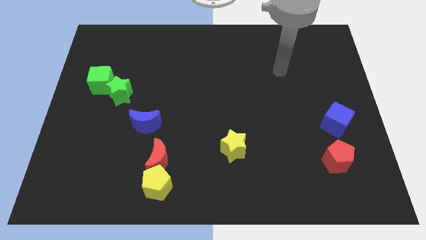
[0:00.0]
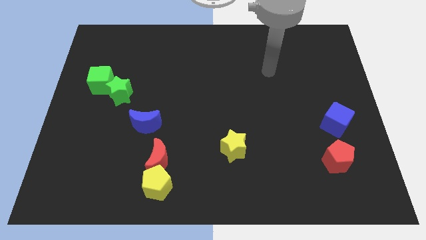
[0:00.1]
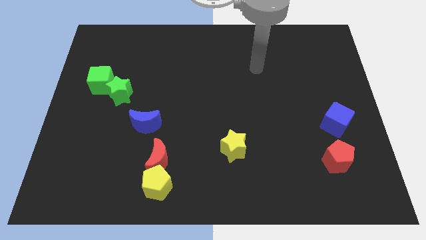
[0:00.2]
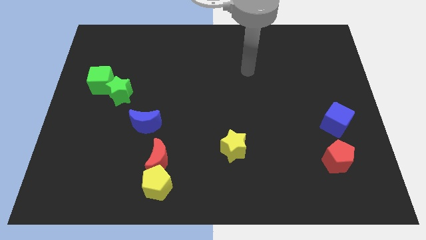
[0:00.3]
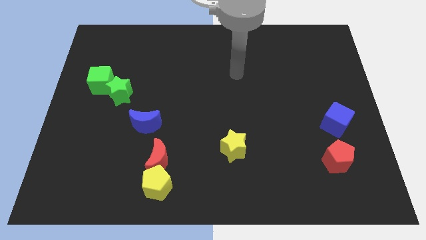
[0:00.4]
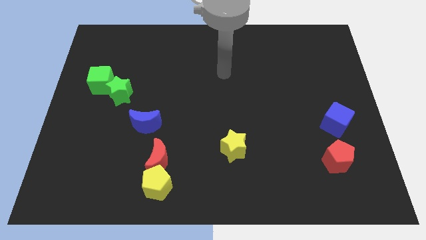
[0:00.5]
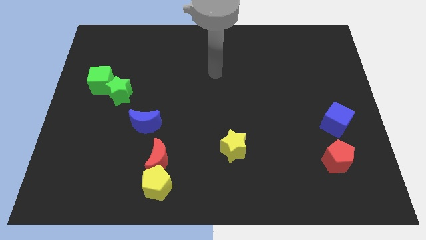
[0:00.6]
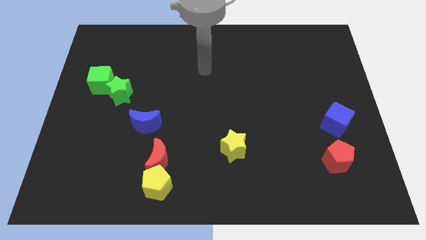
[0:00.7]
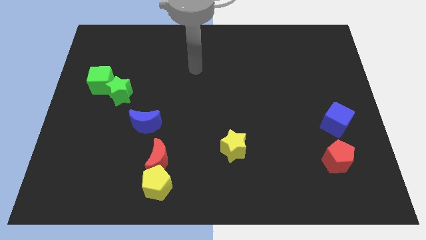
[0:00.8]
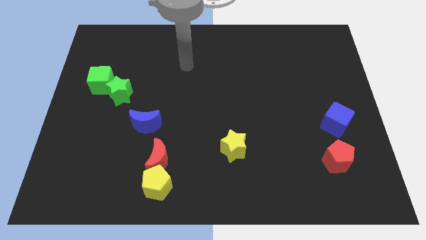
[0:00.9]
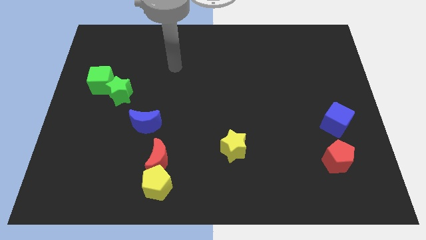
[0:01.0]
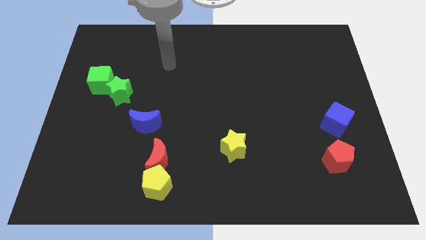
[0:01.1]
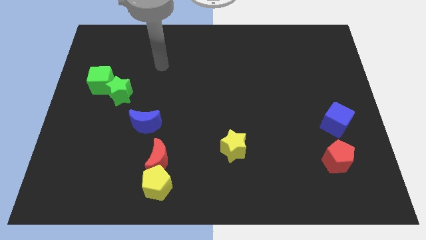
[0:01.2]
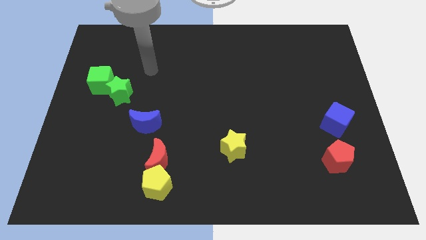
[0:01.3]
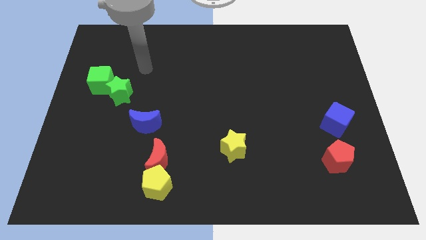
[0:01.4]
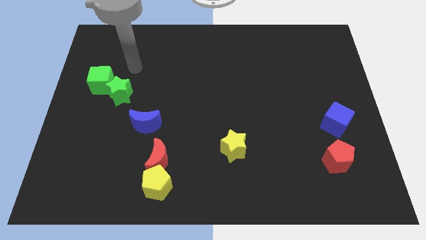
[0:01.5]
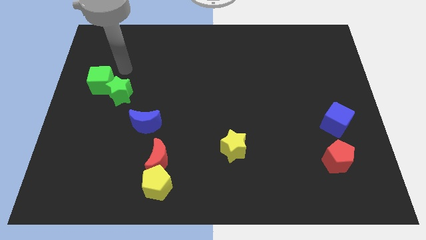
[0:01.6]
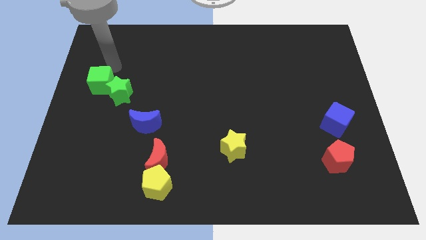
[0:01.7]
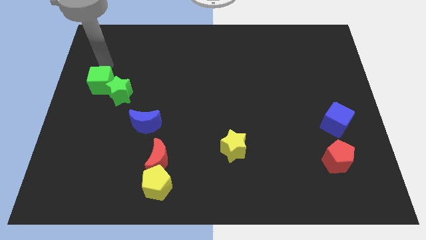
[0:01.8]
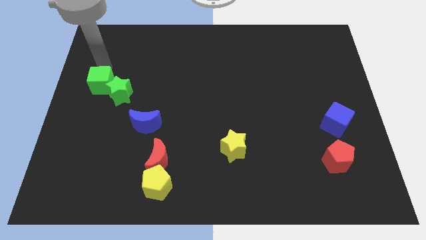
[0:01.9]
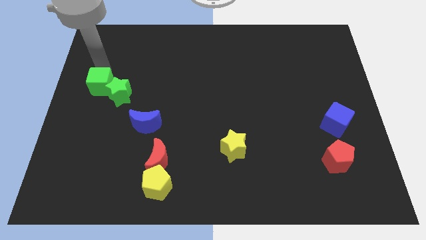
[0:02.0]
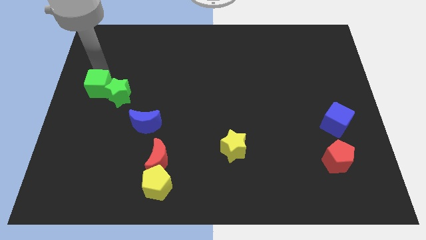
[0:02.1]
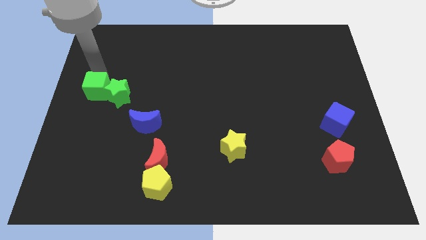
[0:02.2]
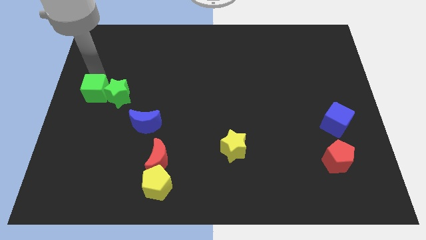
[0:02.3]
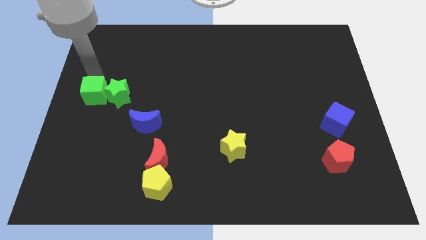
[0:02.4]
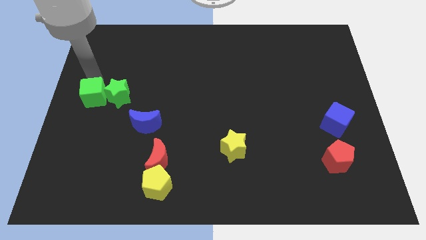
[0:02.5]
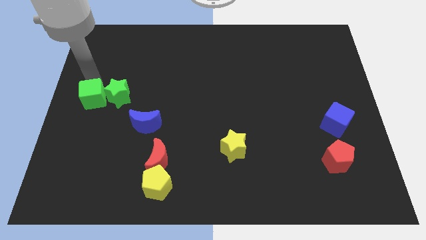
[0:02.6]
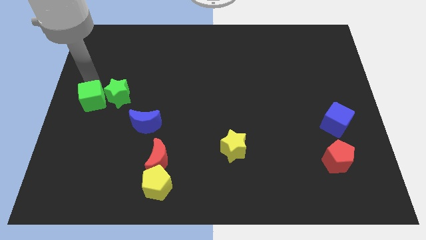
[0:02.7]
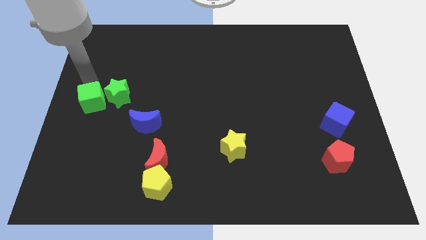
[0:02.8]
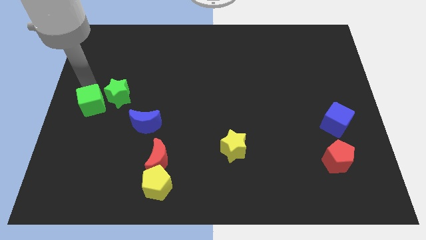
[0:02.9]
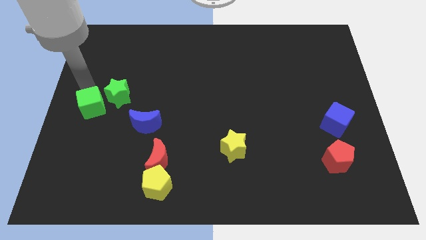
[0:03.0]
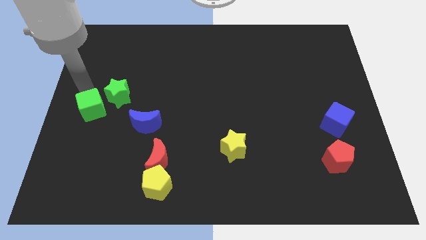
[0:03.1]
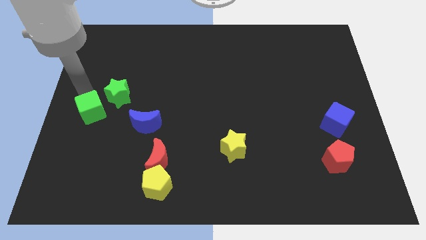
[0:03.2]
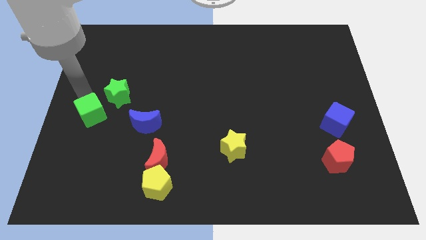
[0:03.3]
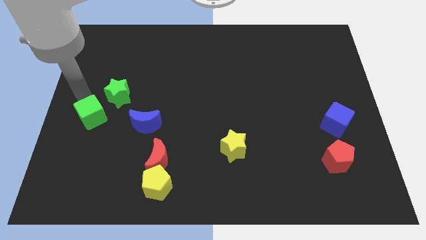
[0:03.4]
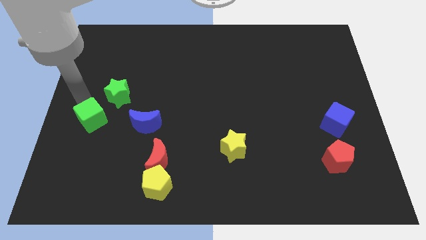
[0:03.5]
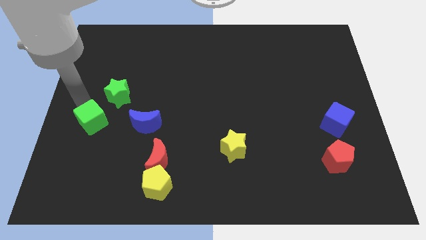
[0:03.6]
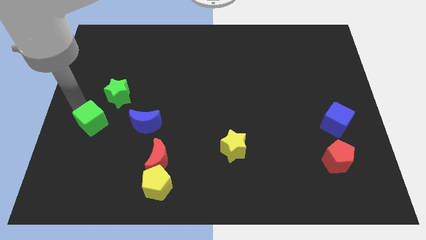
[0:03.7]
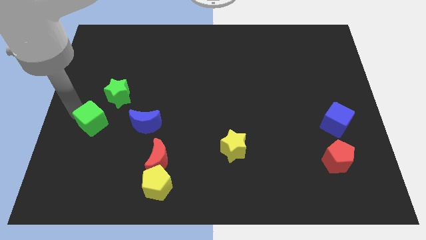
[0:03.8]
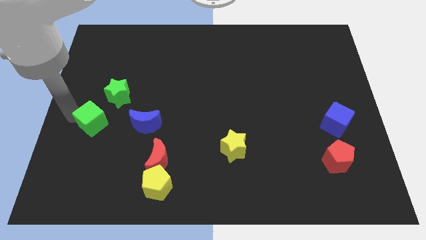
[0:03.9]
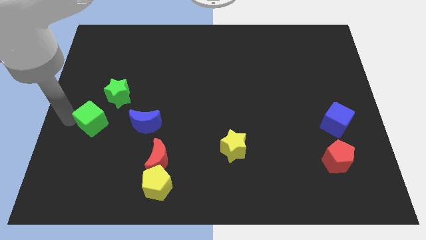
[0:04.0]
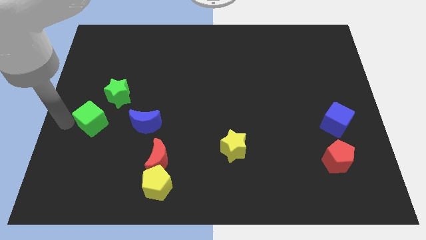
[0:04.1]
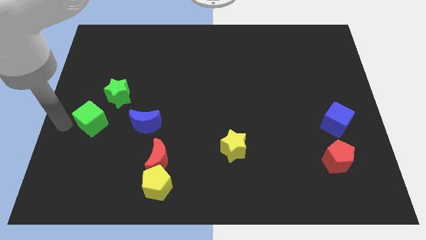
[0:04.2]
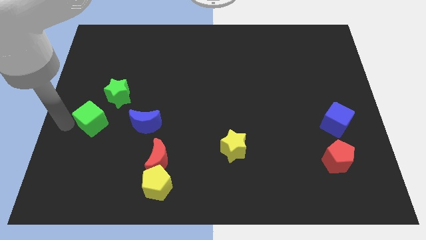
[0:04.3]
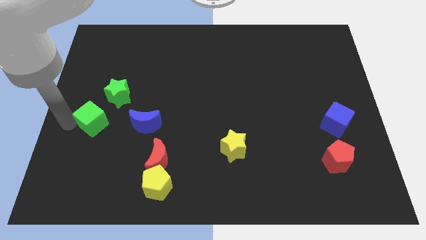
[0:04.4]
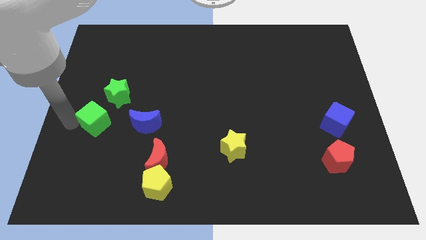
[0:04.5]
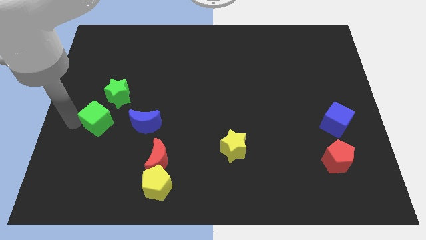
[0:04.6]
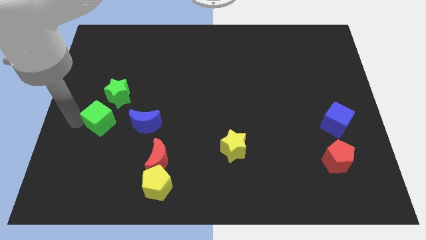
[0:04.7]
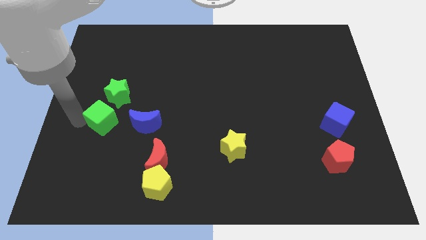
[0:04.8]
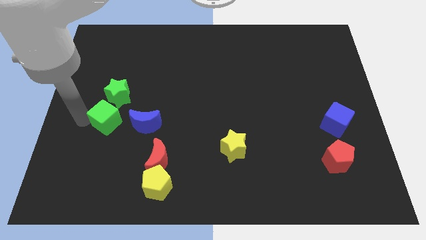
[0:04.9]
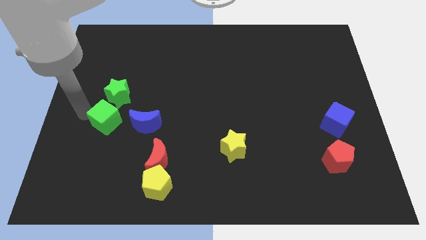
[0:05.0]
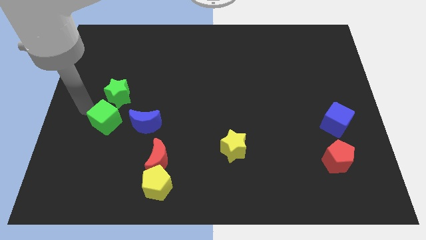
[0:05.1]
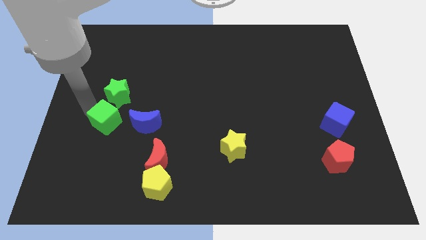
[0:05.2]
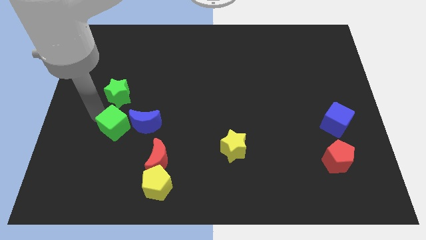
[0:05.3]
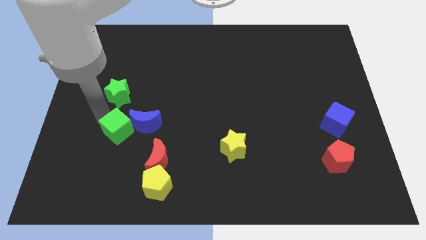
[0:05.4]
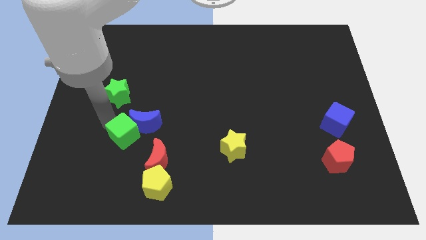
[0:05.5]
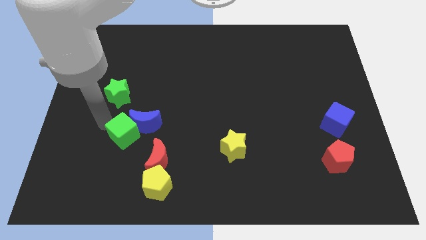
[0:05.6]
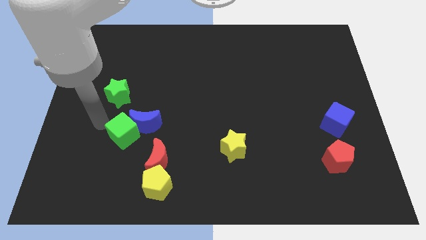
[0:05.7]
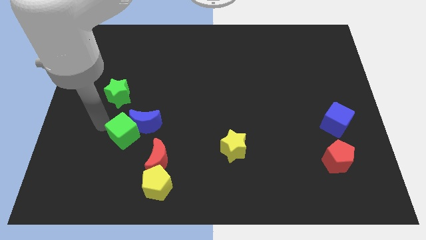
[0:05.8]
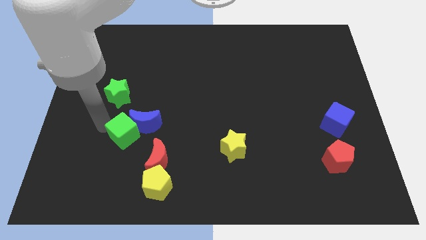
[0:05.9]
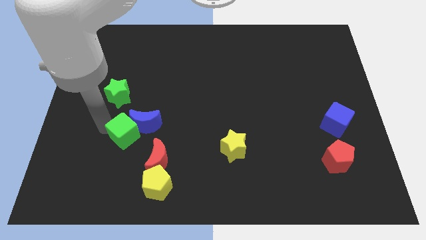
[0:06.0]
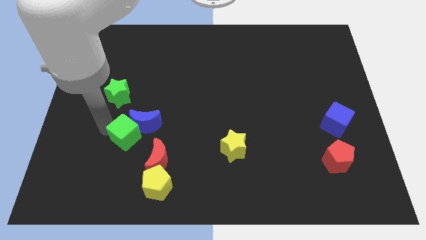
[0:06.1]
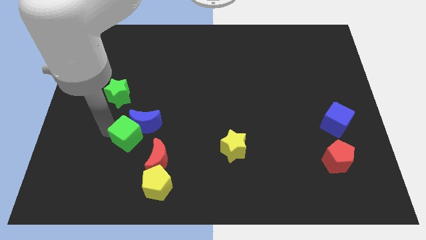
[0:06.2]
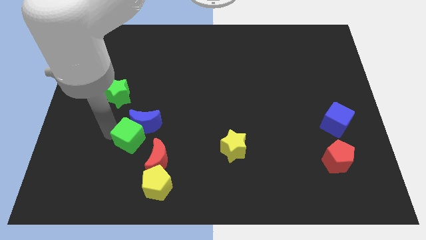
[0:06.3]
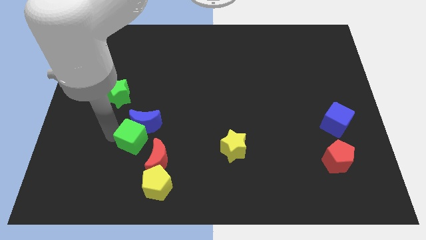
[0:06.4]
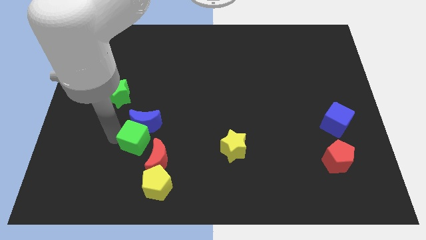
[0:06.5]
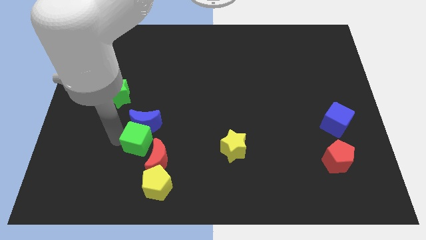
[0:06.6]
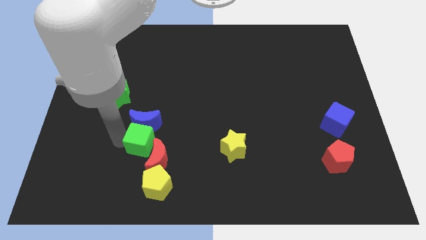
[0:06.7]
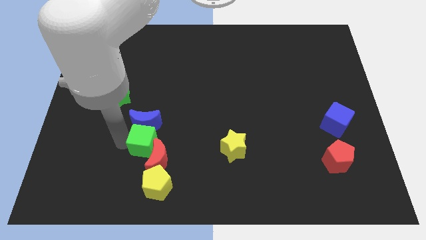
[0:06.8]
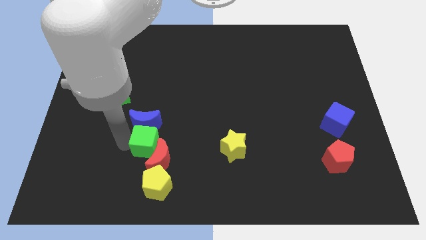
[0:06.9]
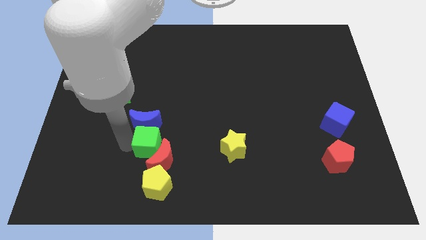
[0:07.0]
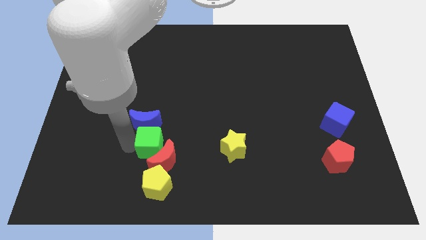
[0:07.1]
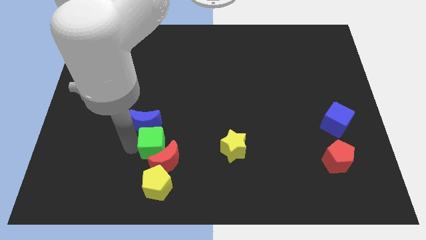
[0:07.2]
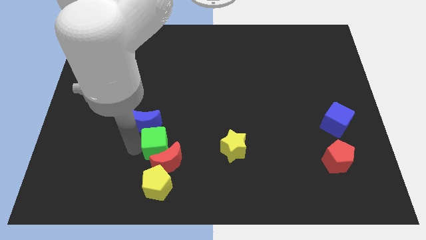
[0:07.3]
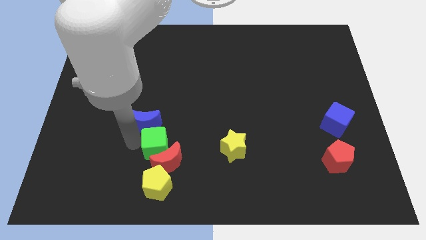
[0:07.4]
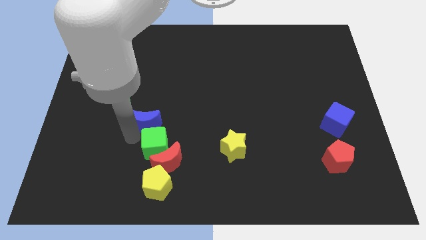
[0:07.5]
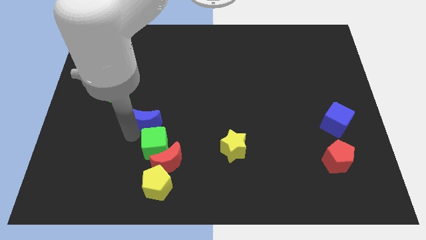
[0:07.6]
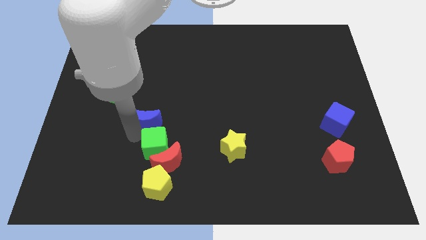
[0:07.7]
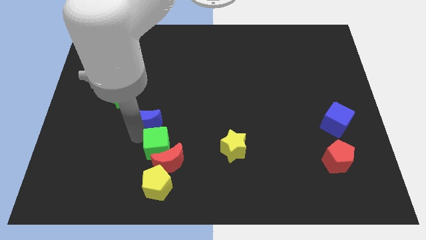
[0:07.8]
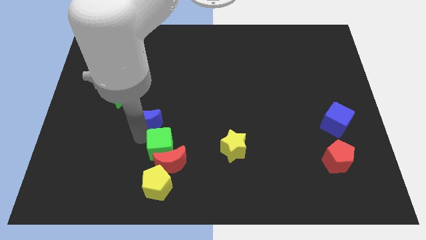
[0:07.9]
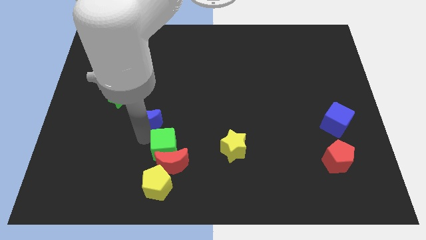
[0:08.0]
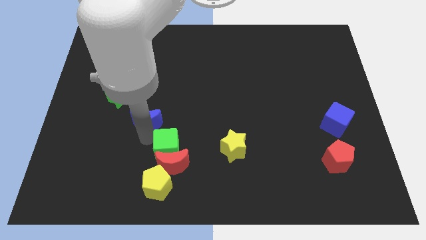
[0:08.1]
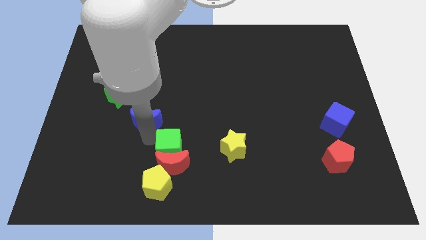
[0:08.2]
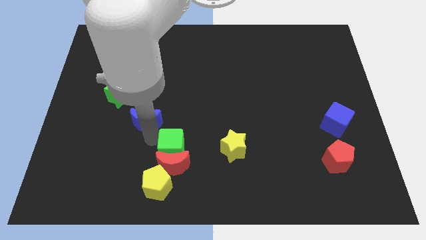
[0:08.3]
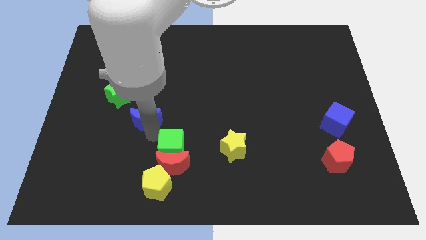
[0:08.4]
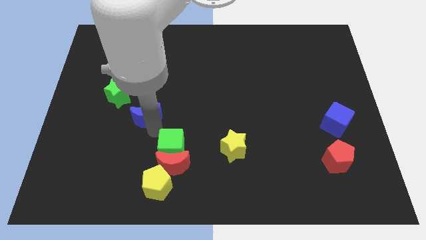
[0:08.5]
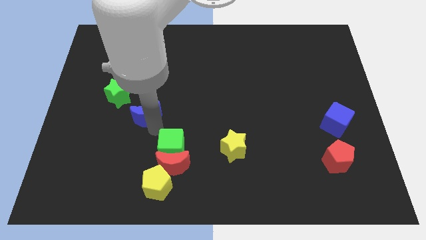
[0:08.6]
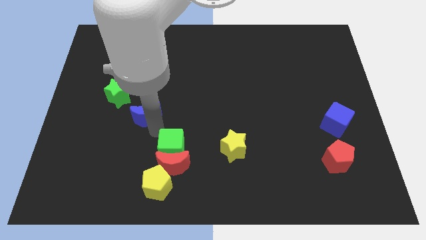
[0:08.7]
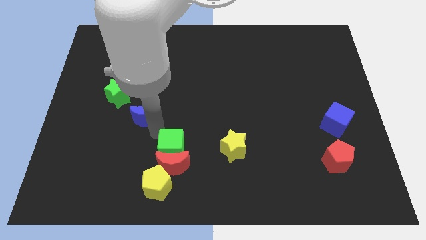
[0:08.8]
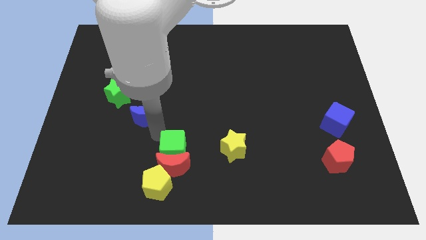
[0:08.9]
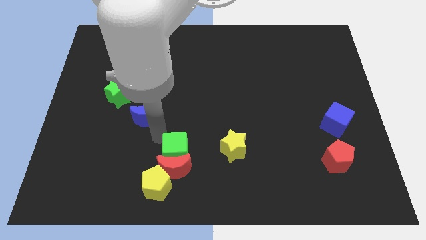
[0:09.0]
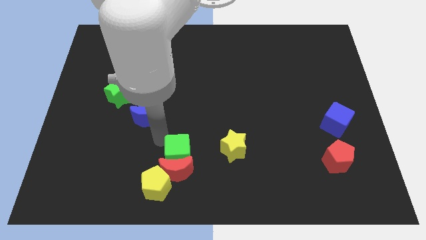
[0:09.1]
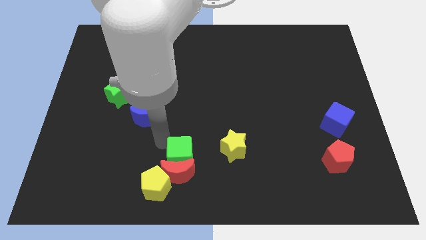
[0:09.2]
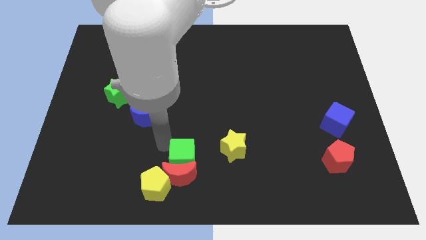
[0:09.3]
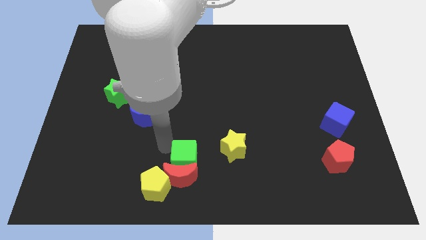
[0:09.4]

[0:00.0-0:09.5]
move the green cube to the bottom
